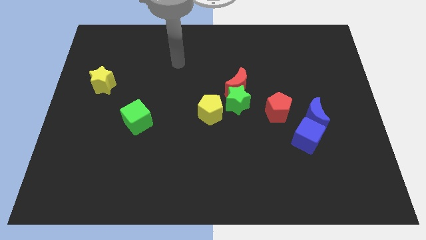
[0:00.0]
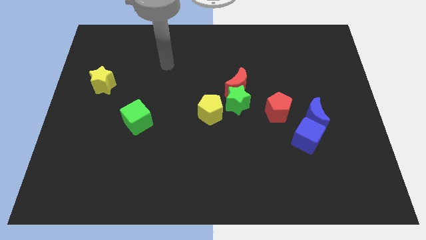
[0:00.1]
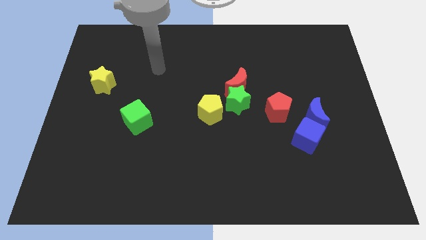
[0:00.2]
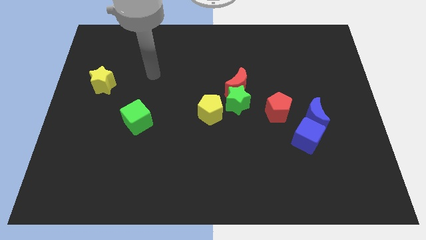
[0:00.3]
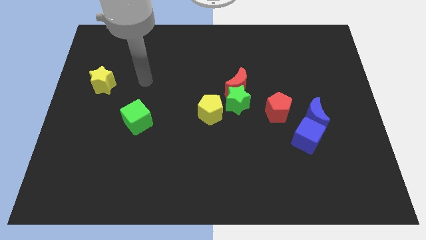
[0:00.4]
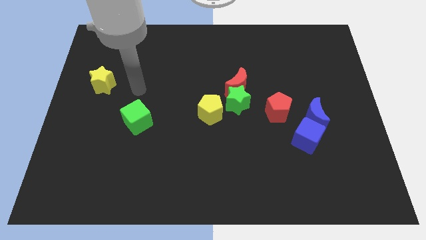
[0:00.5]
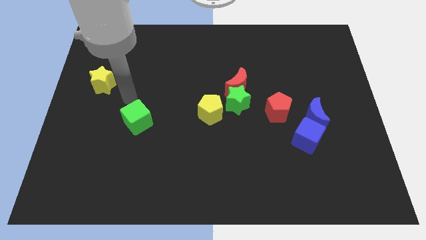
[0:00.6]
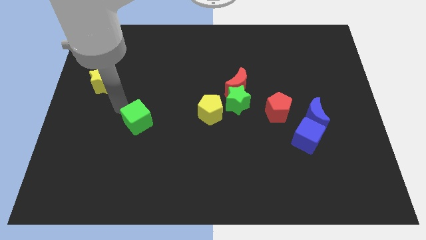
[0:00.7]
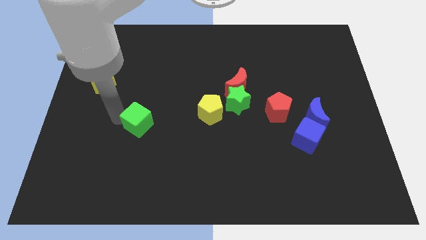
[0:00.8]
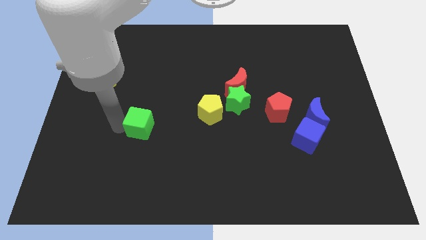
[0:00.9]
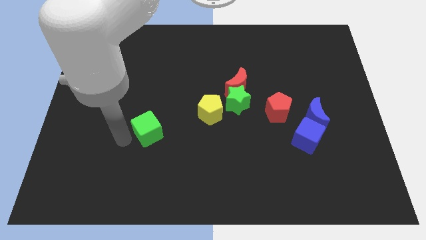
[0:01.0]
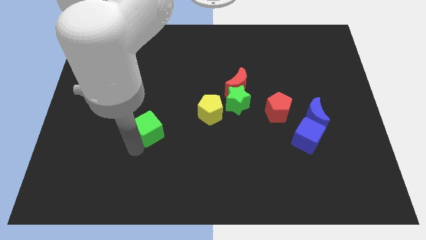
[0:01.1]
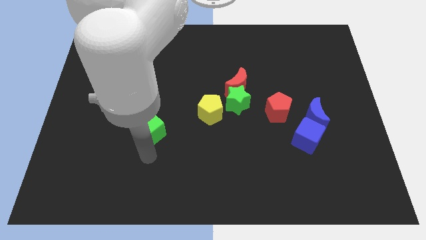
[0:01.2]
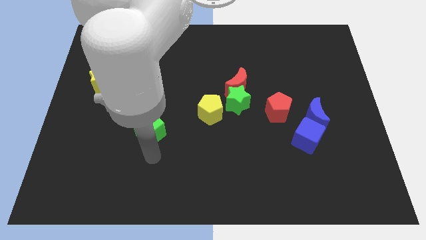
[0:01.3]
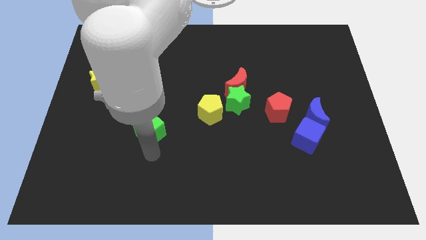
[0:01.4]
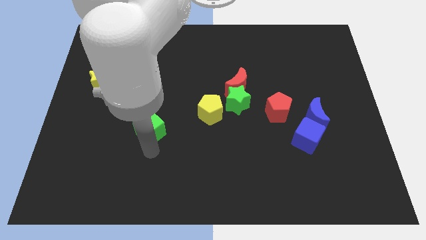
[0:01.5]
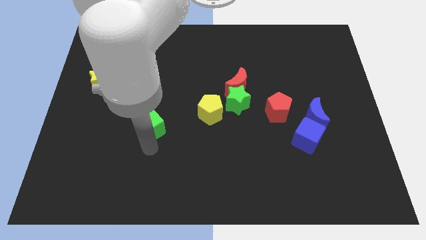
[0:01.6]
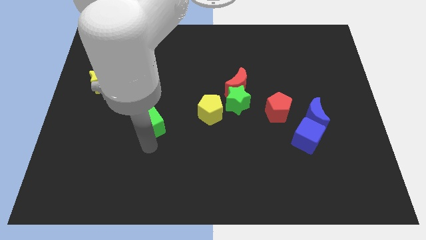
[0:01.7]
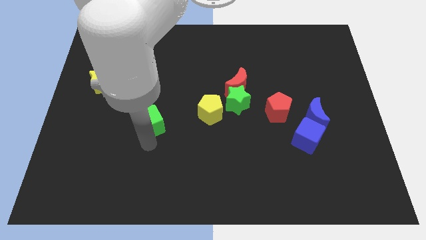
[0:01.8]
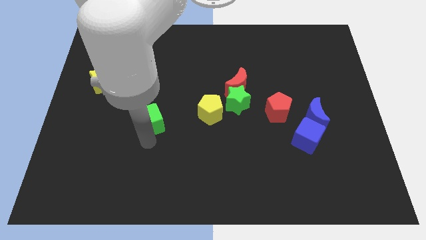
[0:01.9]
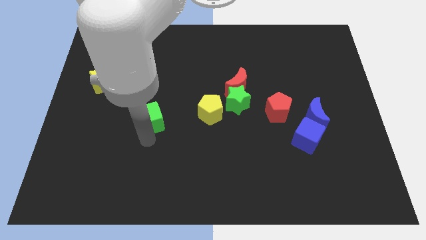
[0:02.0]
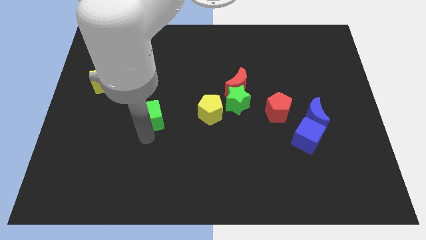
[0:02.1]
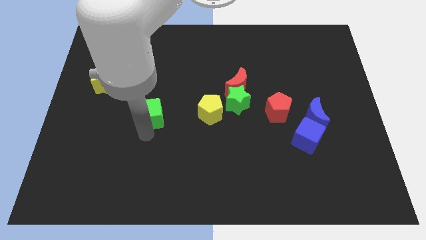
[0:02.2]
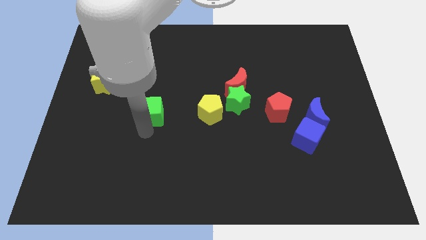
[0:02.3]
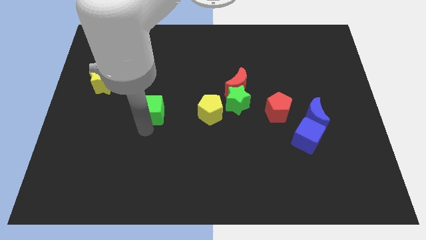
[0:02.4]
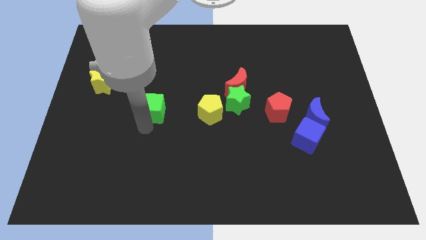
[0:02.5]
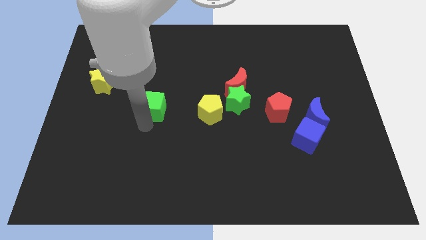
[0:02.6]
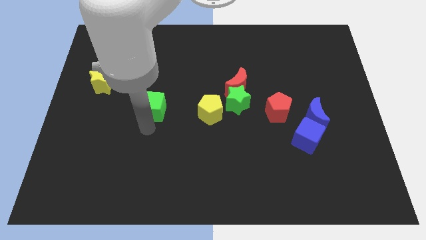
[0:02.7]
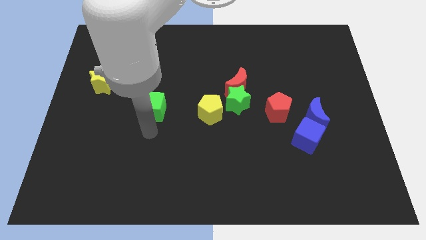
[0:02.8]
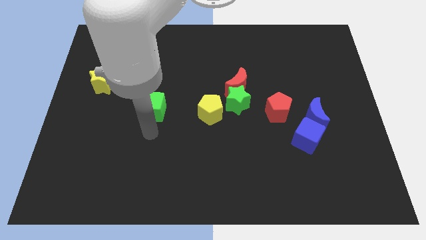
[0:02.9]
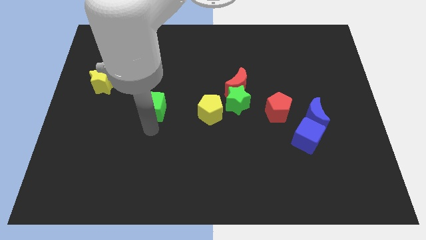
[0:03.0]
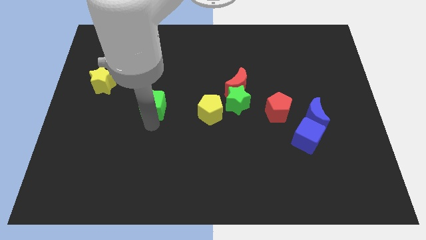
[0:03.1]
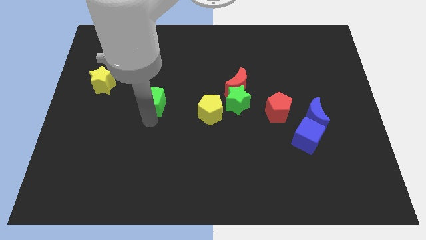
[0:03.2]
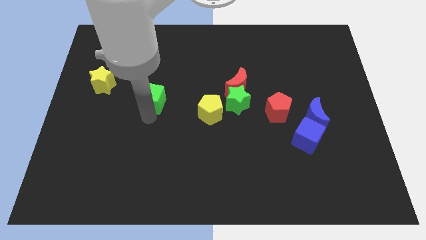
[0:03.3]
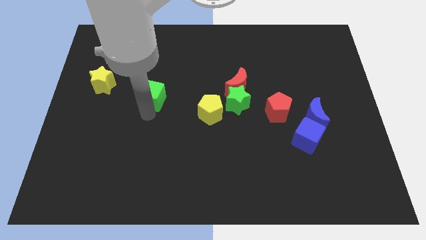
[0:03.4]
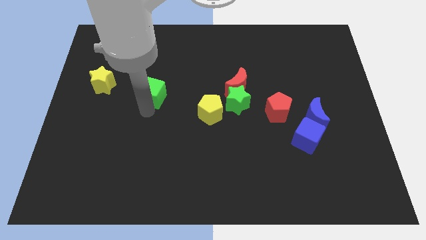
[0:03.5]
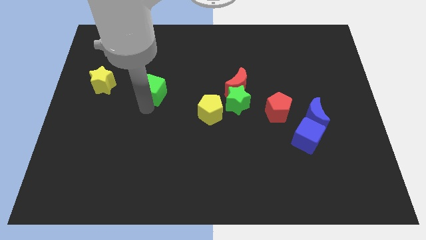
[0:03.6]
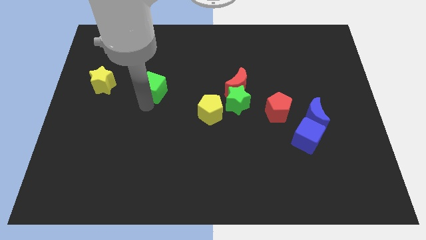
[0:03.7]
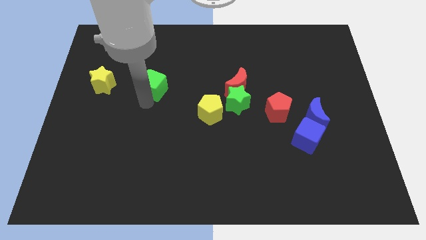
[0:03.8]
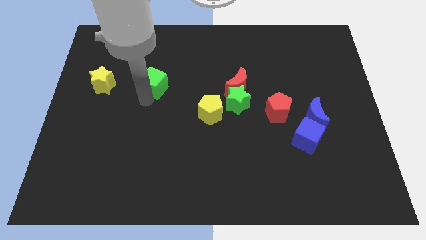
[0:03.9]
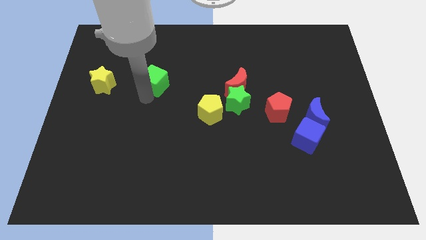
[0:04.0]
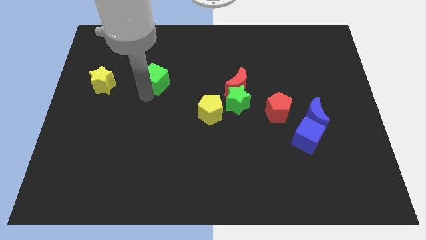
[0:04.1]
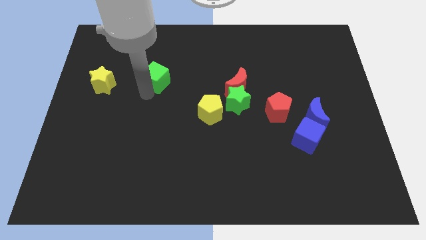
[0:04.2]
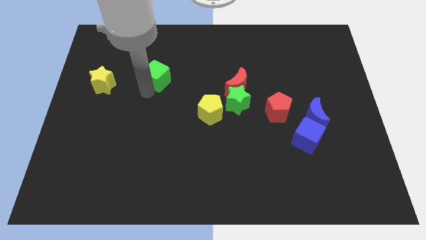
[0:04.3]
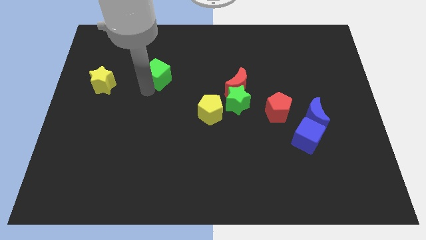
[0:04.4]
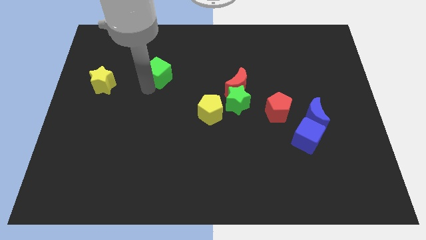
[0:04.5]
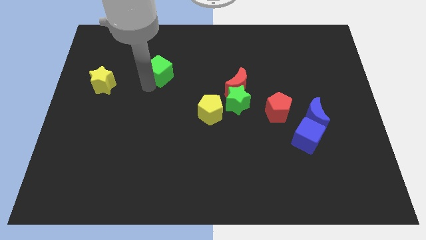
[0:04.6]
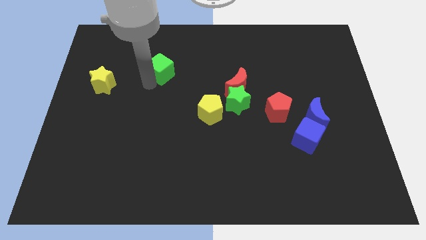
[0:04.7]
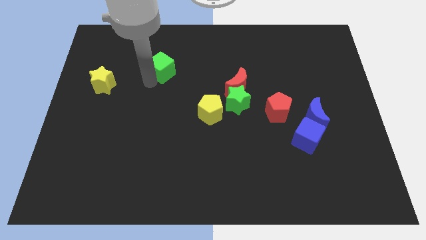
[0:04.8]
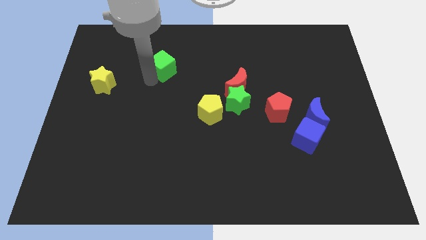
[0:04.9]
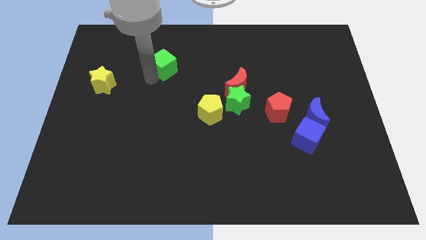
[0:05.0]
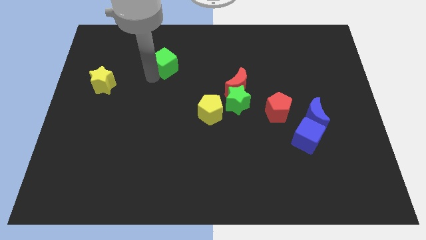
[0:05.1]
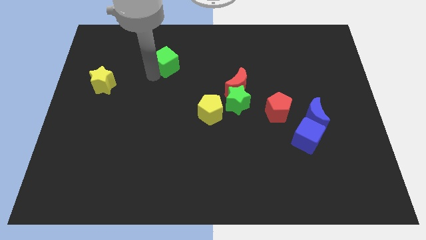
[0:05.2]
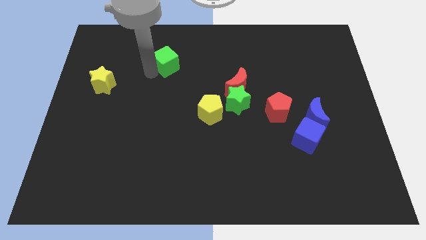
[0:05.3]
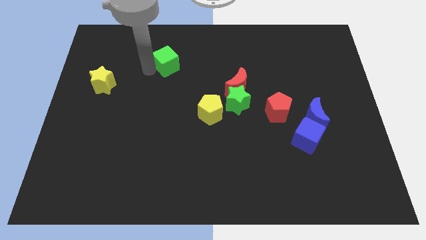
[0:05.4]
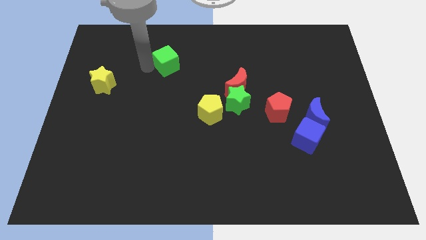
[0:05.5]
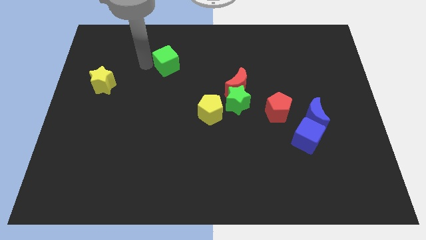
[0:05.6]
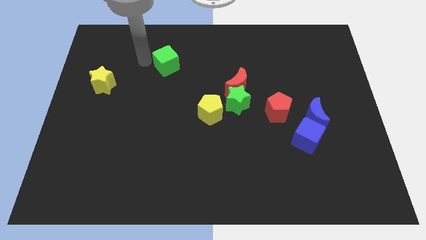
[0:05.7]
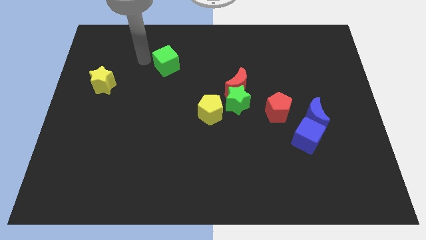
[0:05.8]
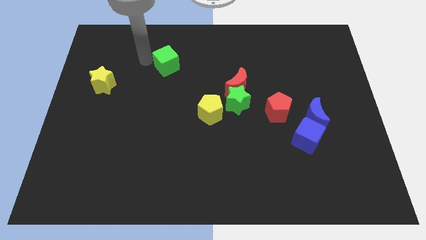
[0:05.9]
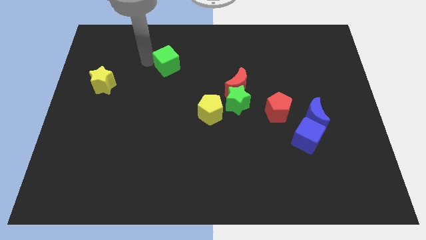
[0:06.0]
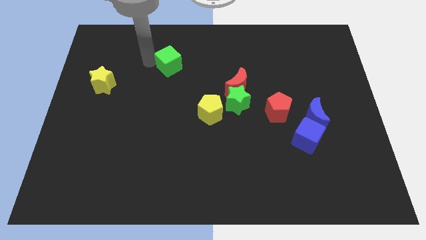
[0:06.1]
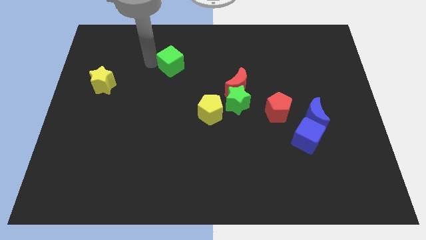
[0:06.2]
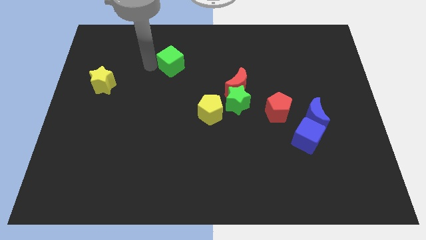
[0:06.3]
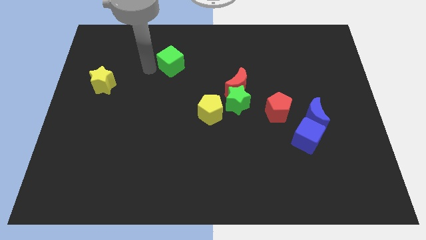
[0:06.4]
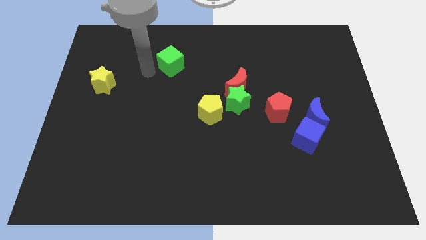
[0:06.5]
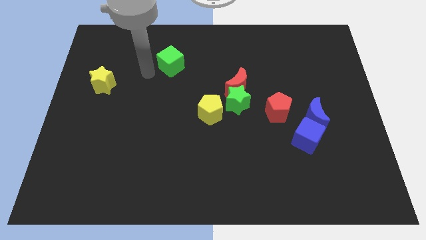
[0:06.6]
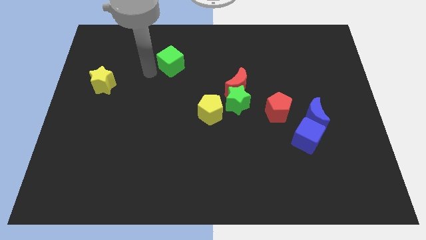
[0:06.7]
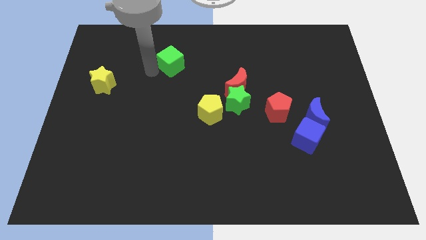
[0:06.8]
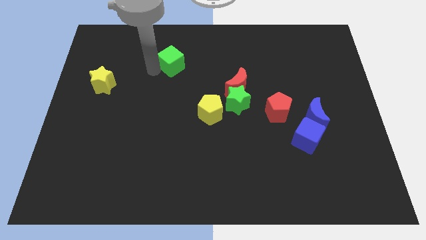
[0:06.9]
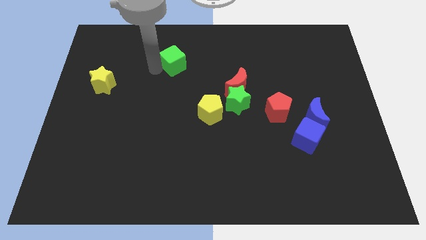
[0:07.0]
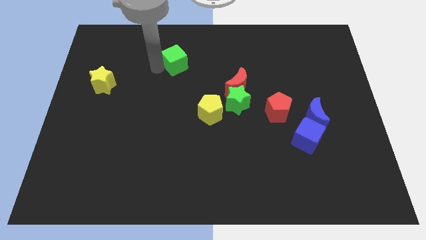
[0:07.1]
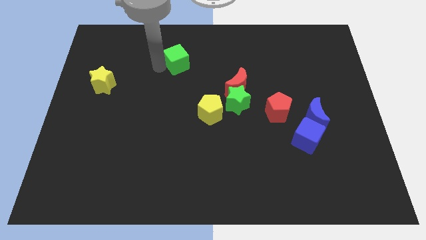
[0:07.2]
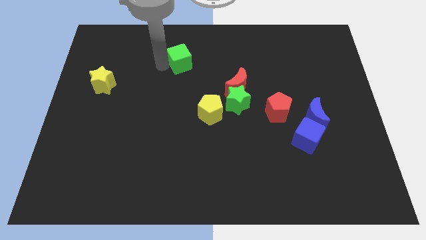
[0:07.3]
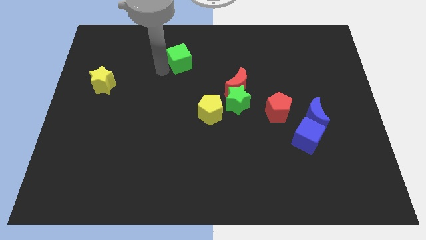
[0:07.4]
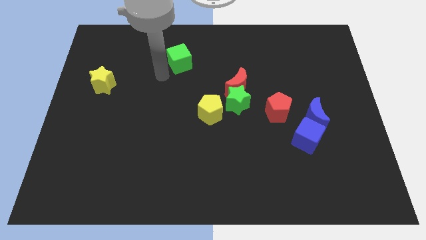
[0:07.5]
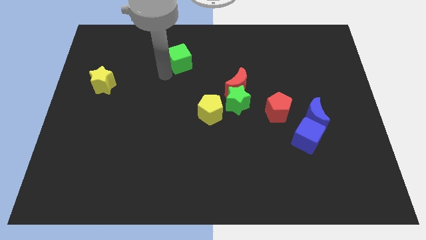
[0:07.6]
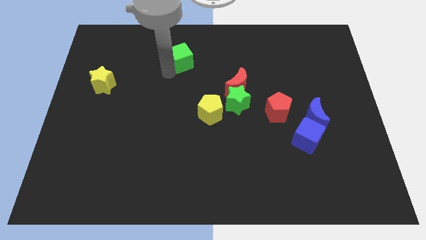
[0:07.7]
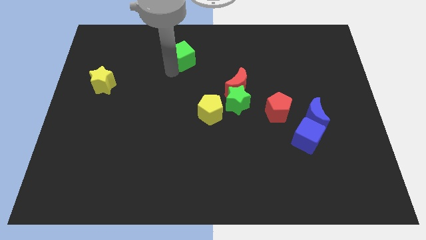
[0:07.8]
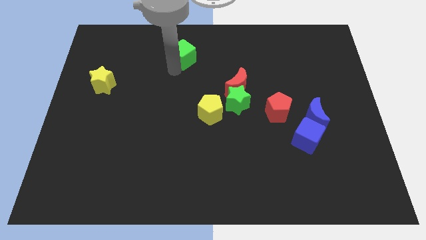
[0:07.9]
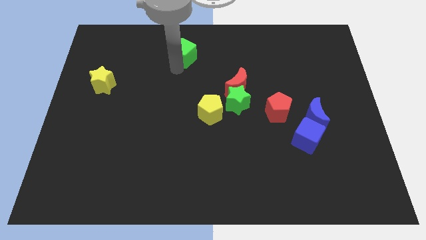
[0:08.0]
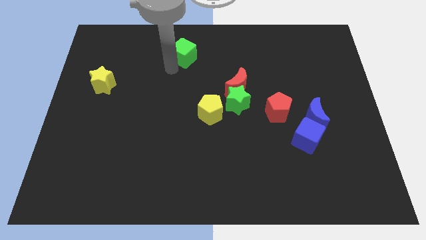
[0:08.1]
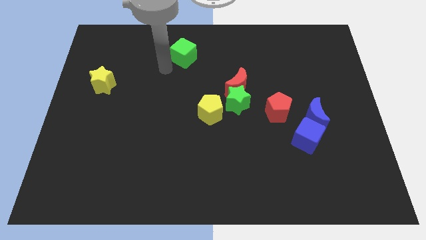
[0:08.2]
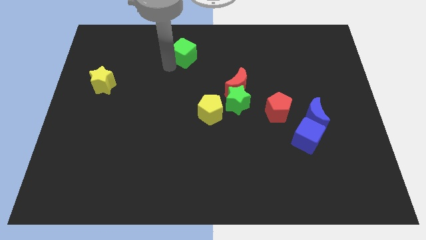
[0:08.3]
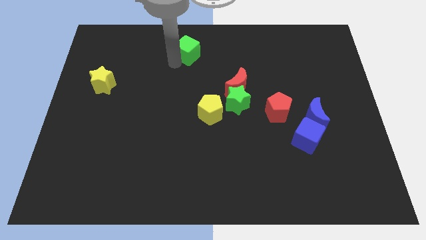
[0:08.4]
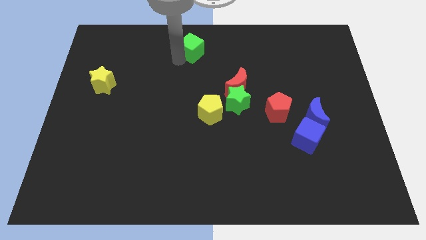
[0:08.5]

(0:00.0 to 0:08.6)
push the green cube to the towards your base
